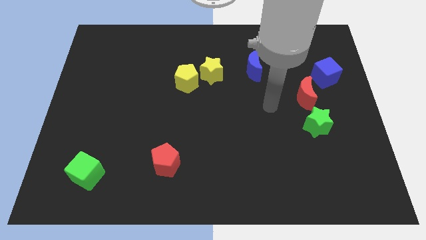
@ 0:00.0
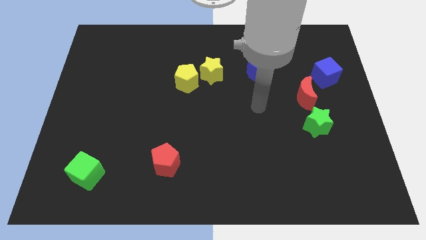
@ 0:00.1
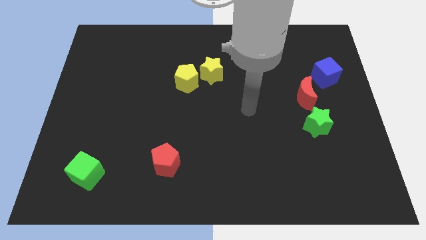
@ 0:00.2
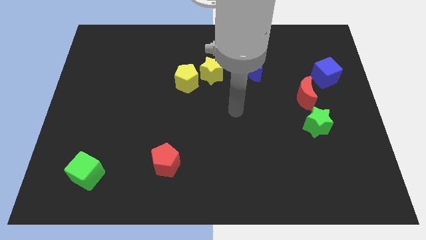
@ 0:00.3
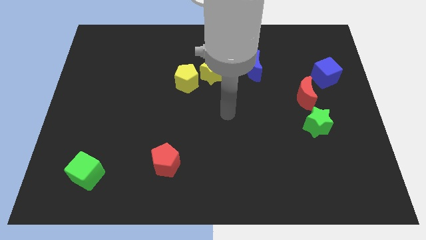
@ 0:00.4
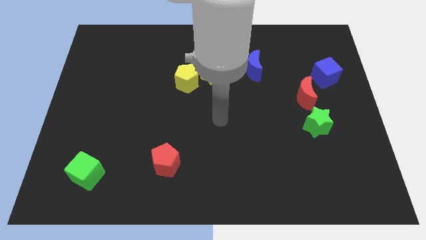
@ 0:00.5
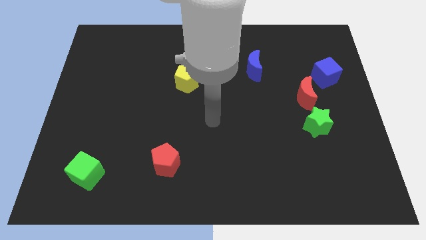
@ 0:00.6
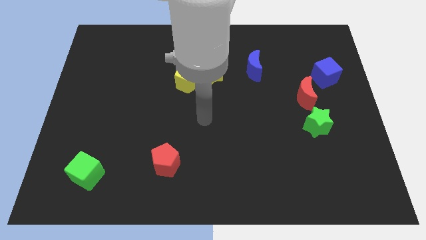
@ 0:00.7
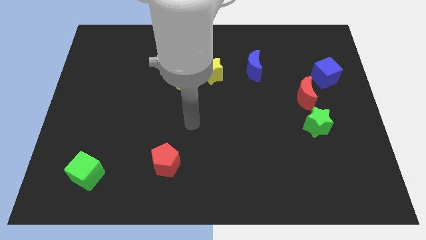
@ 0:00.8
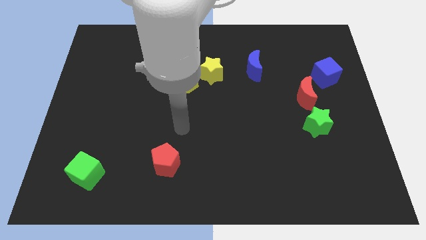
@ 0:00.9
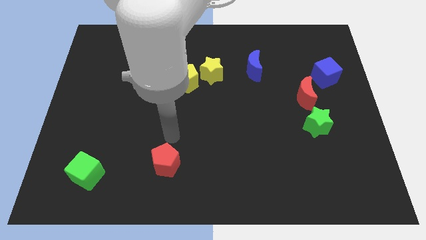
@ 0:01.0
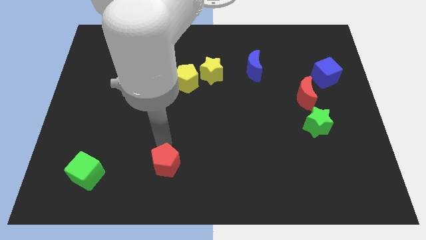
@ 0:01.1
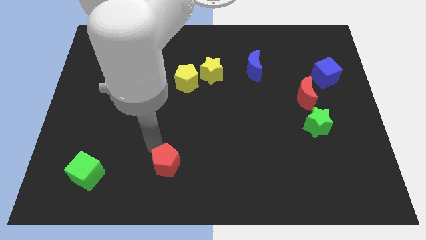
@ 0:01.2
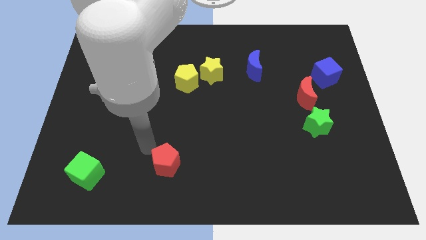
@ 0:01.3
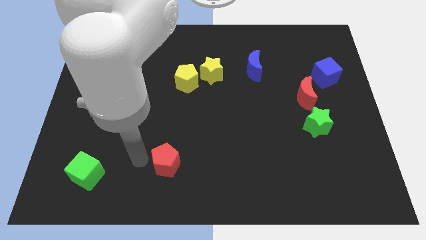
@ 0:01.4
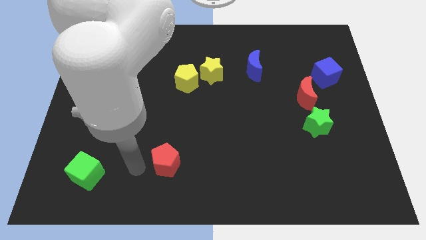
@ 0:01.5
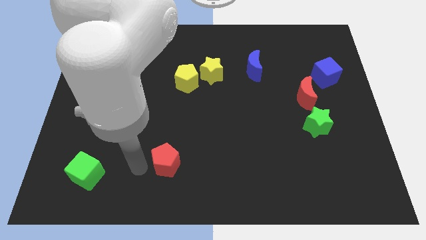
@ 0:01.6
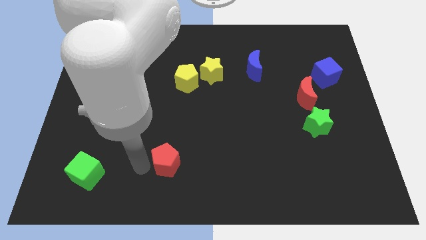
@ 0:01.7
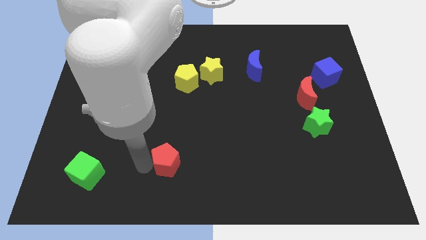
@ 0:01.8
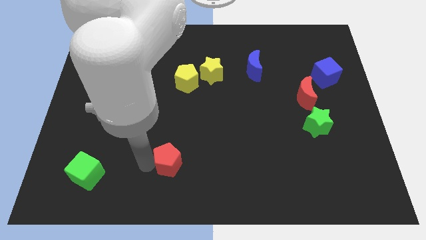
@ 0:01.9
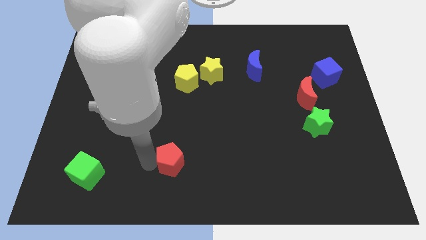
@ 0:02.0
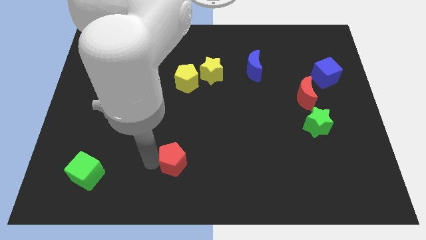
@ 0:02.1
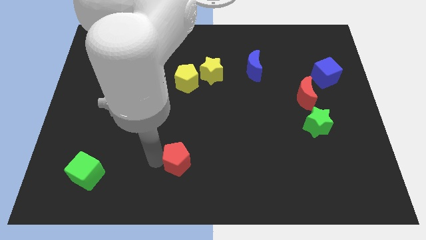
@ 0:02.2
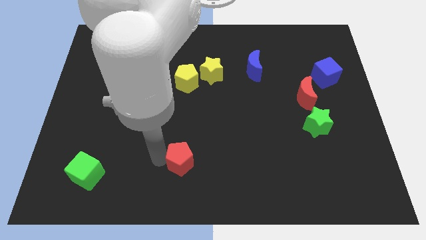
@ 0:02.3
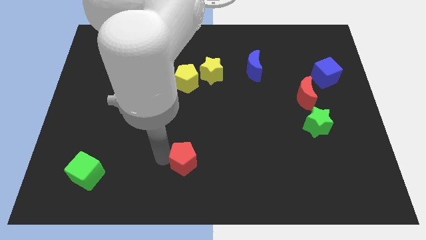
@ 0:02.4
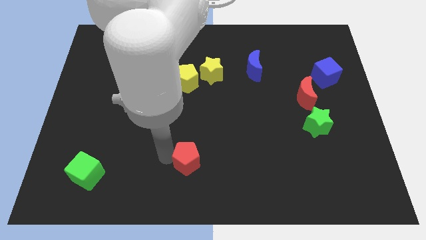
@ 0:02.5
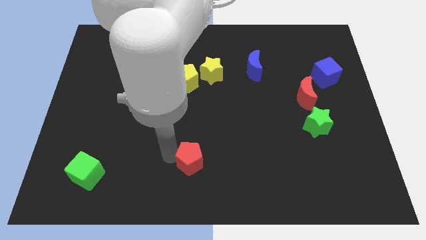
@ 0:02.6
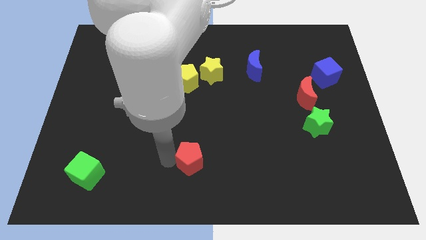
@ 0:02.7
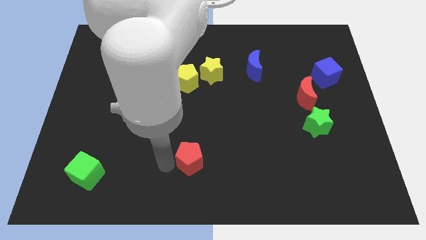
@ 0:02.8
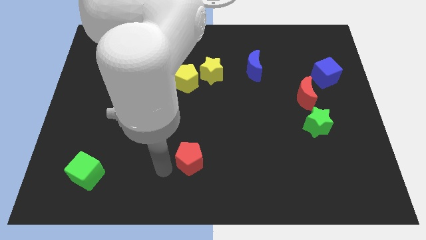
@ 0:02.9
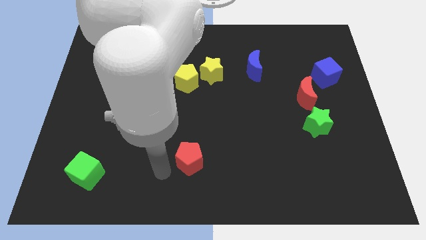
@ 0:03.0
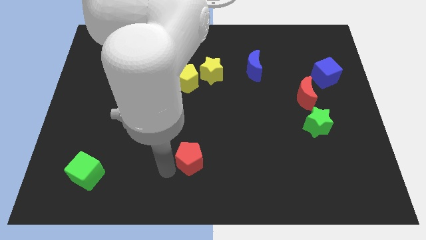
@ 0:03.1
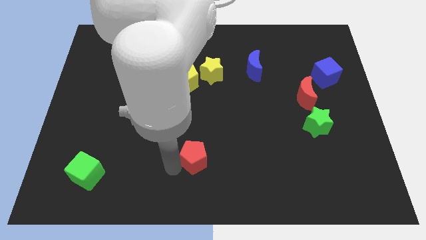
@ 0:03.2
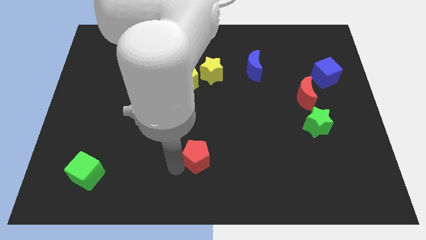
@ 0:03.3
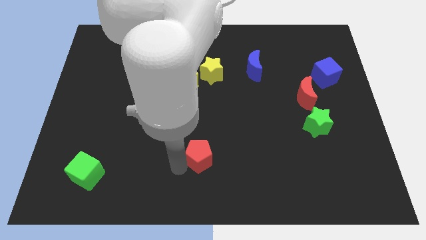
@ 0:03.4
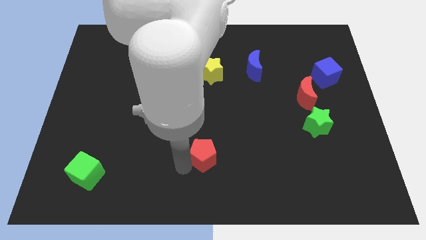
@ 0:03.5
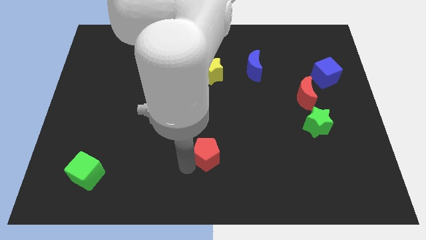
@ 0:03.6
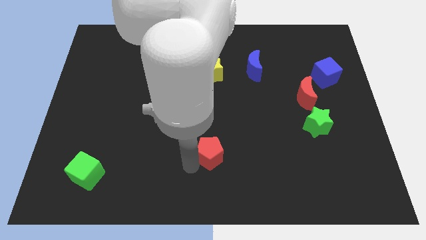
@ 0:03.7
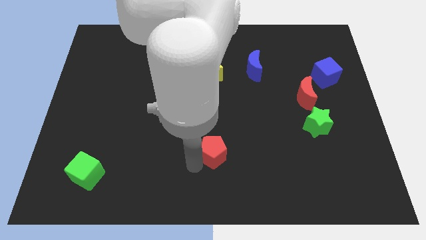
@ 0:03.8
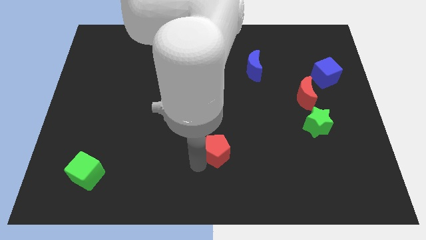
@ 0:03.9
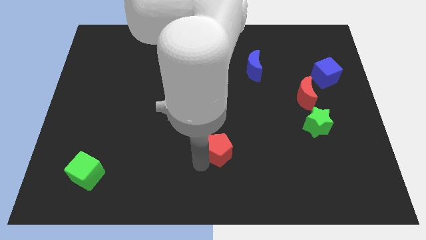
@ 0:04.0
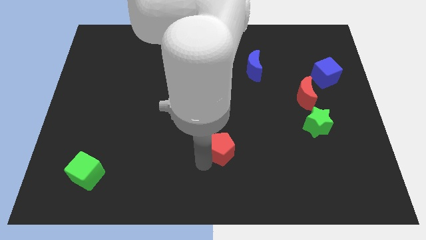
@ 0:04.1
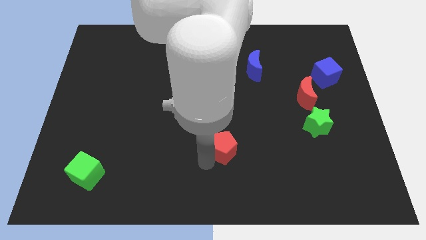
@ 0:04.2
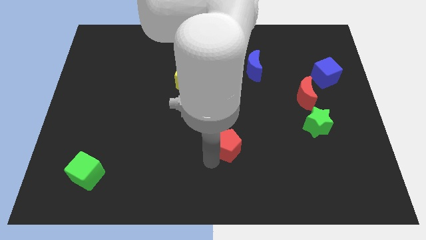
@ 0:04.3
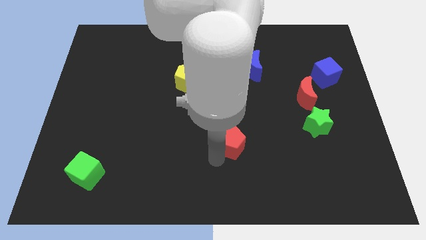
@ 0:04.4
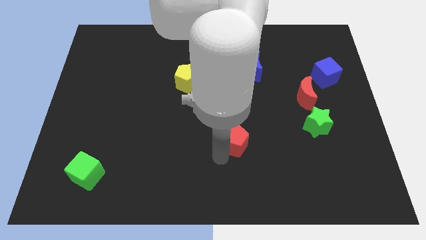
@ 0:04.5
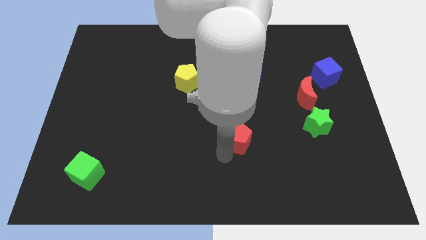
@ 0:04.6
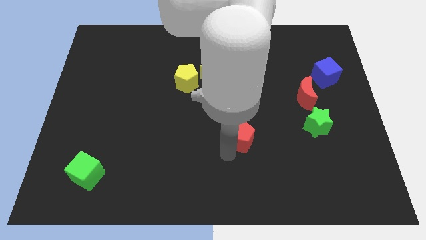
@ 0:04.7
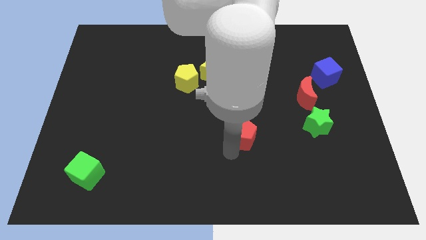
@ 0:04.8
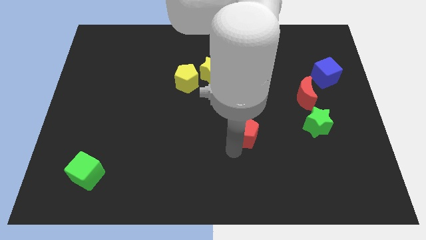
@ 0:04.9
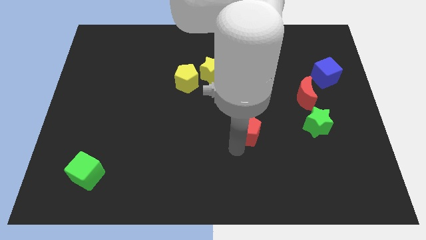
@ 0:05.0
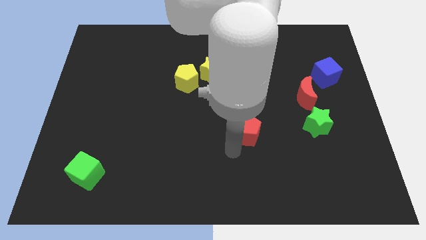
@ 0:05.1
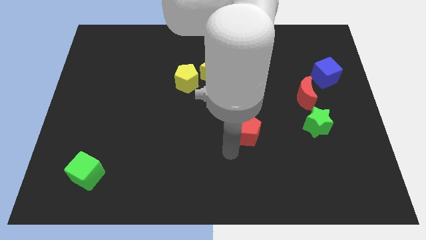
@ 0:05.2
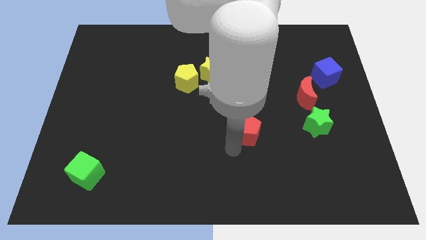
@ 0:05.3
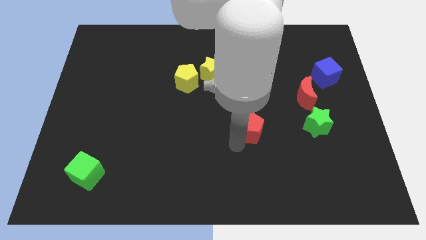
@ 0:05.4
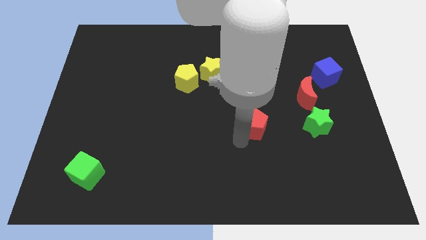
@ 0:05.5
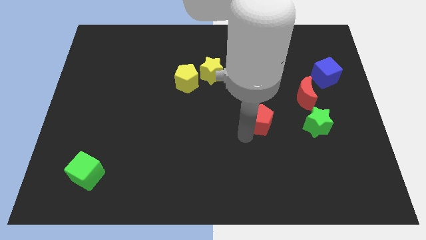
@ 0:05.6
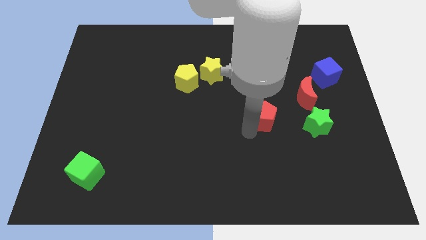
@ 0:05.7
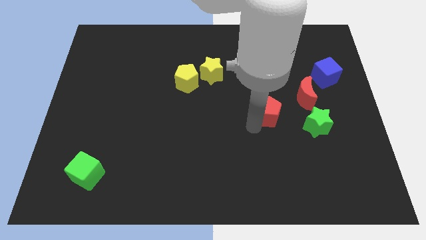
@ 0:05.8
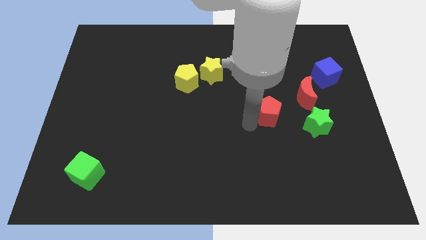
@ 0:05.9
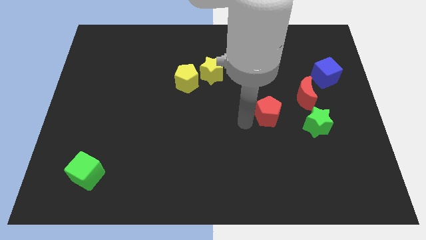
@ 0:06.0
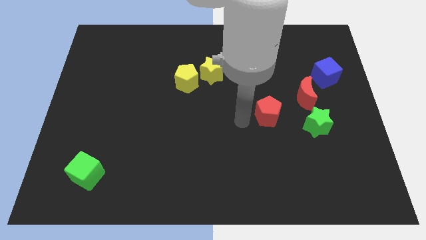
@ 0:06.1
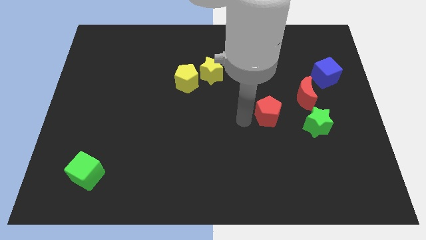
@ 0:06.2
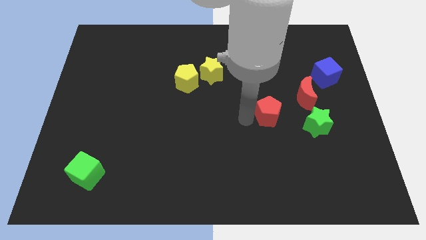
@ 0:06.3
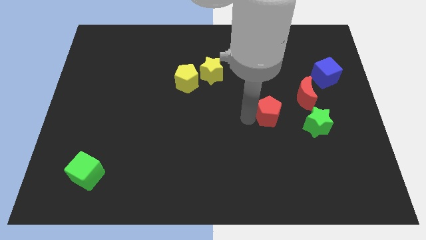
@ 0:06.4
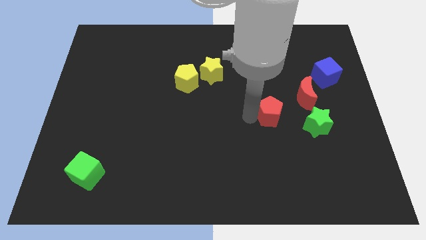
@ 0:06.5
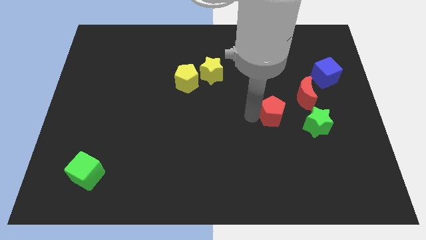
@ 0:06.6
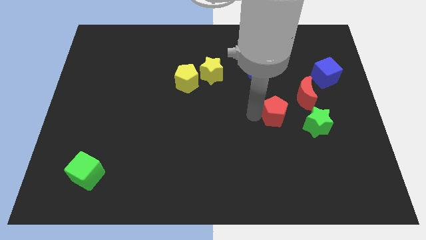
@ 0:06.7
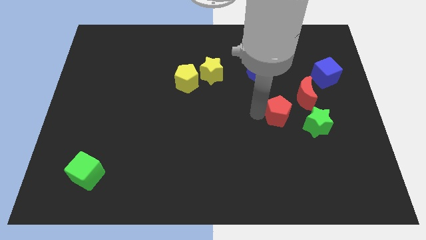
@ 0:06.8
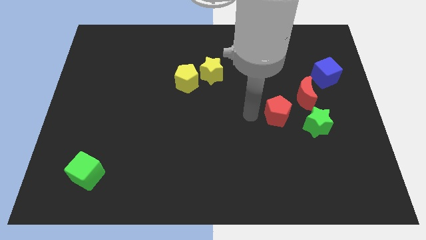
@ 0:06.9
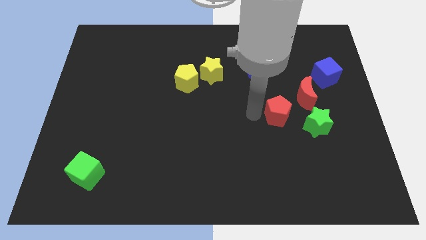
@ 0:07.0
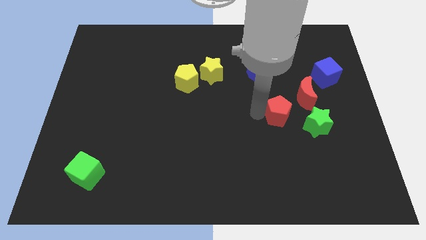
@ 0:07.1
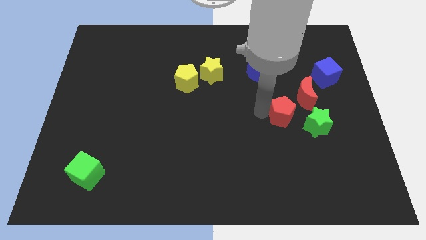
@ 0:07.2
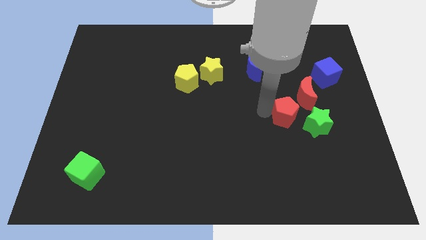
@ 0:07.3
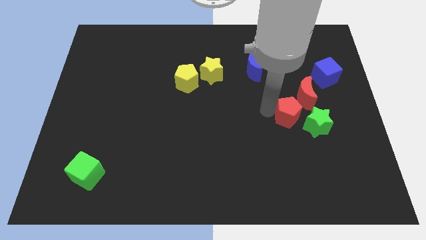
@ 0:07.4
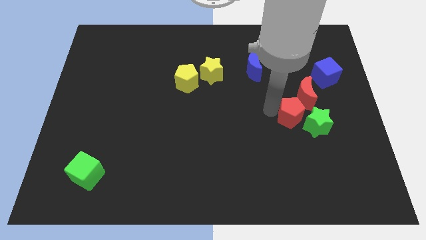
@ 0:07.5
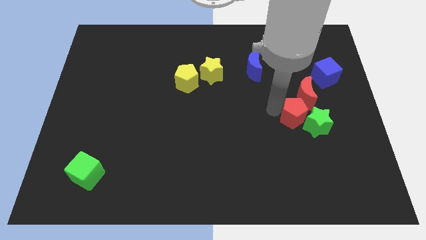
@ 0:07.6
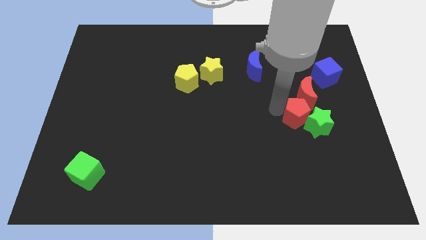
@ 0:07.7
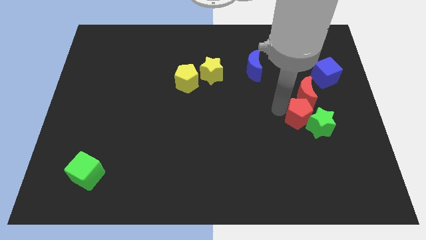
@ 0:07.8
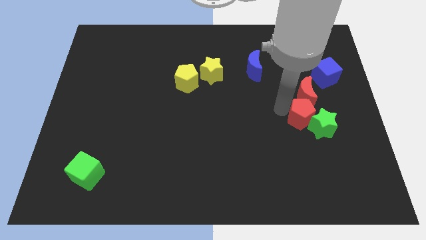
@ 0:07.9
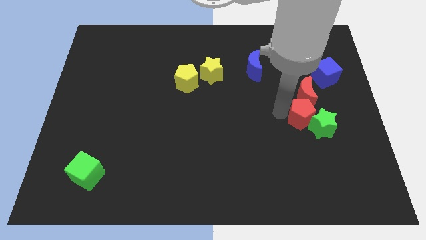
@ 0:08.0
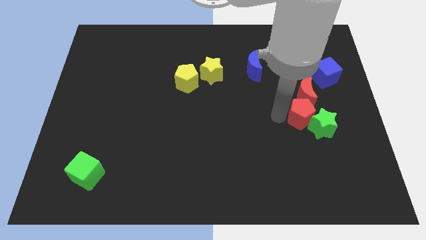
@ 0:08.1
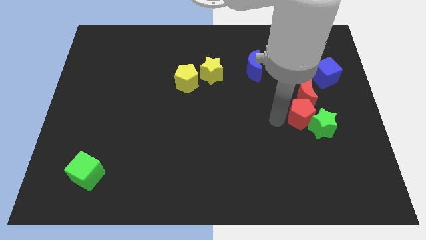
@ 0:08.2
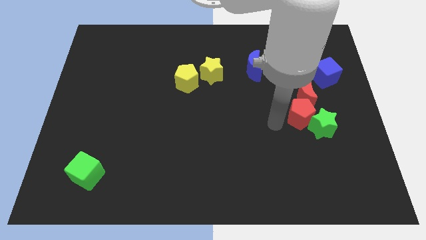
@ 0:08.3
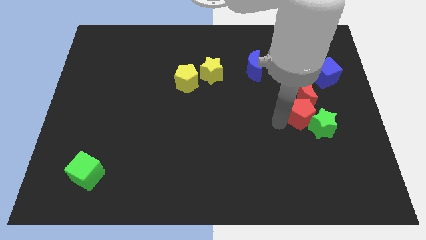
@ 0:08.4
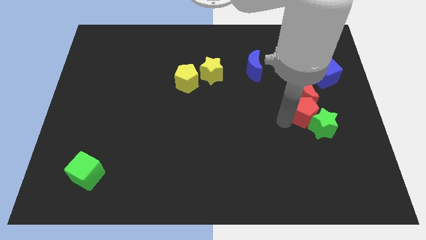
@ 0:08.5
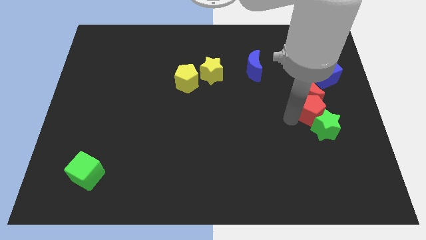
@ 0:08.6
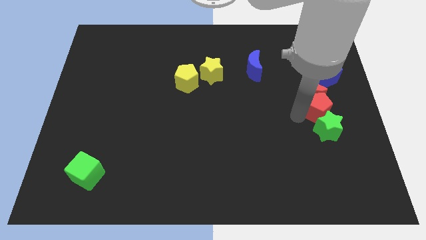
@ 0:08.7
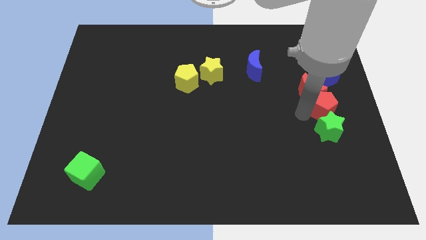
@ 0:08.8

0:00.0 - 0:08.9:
push the red pentagon to the right side
